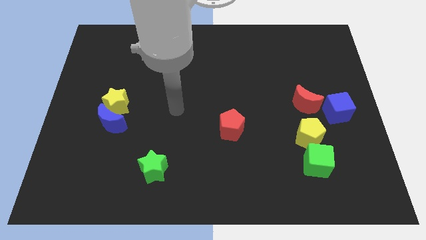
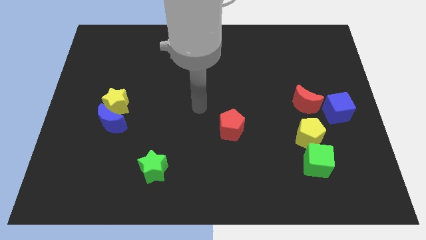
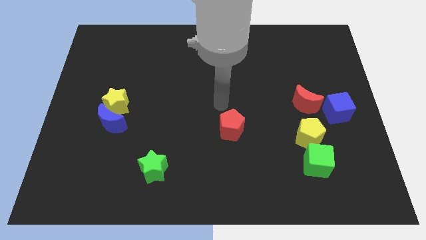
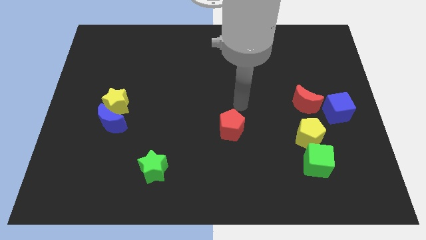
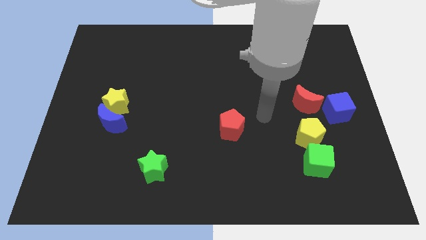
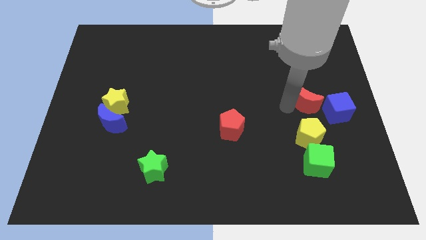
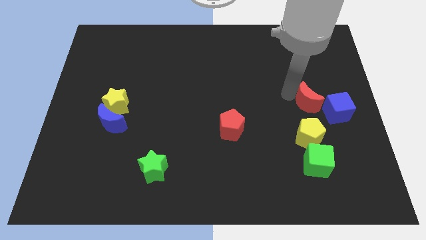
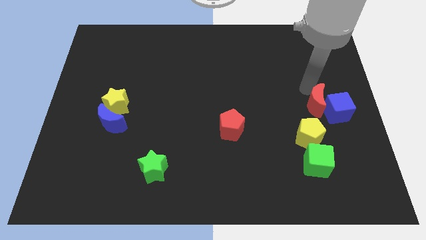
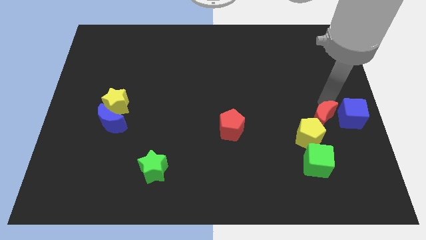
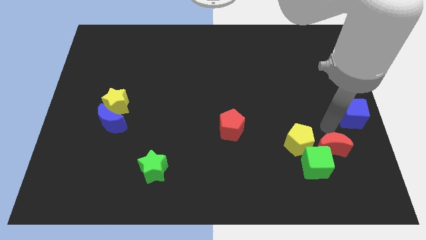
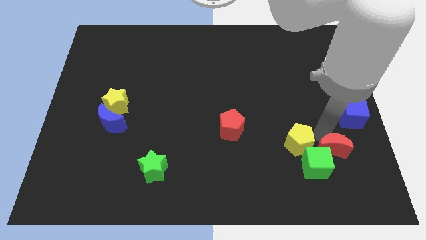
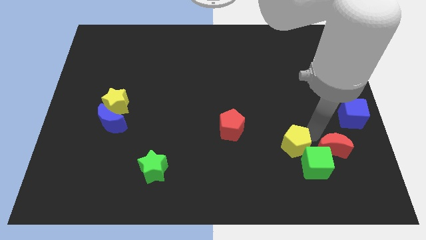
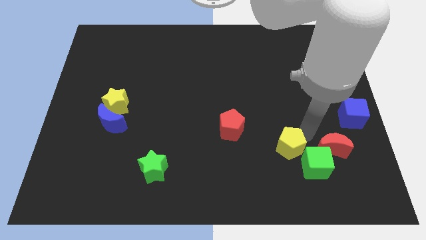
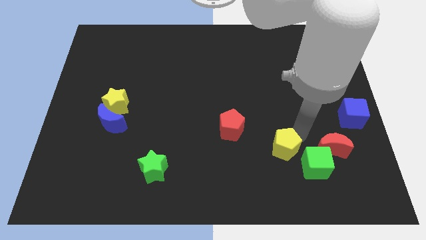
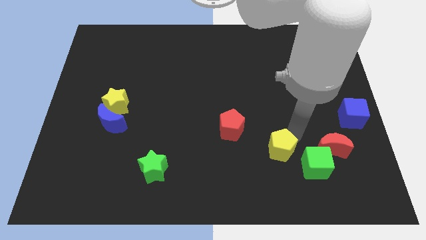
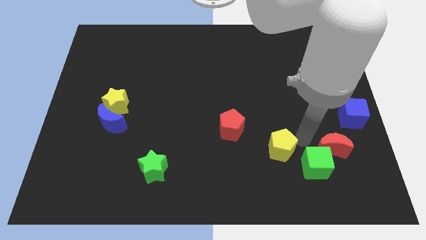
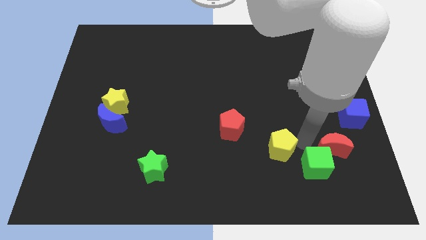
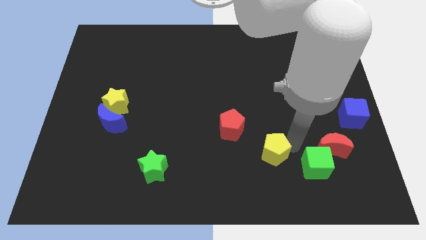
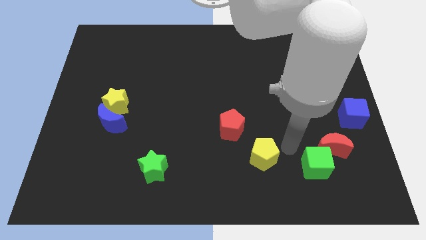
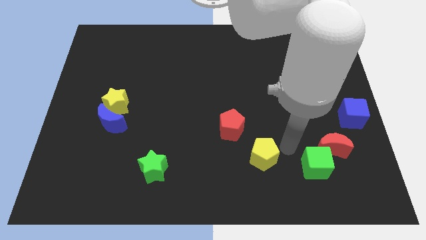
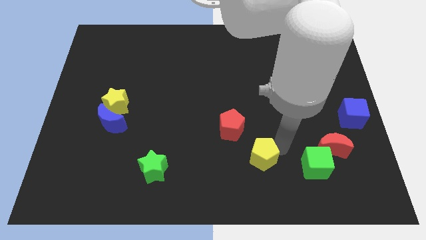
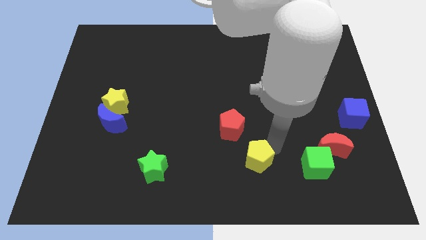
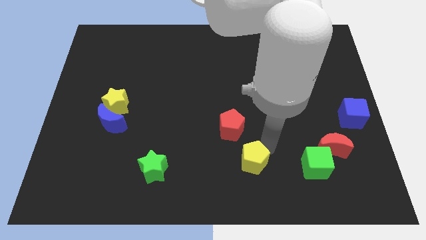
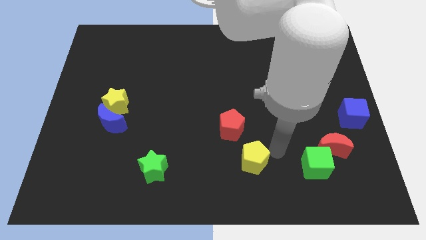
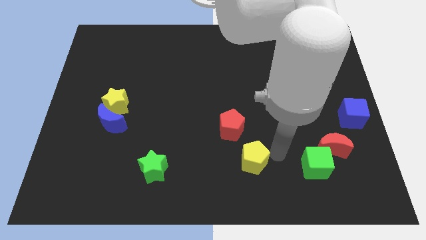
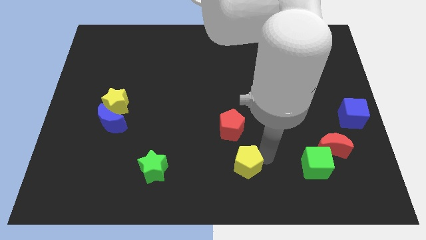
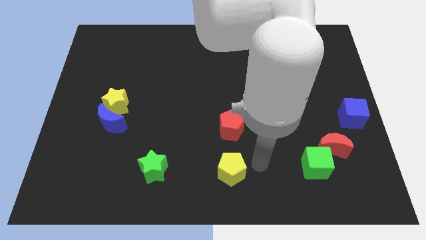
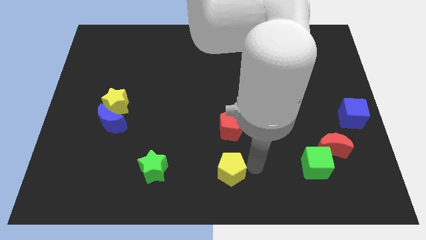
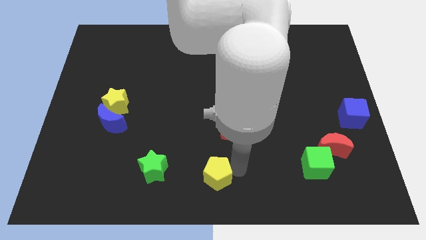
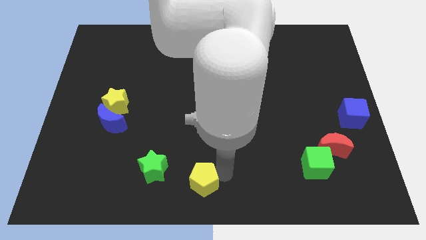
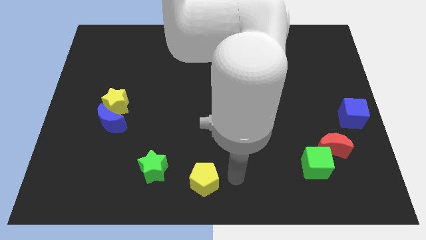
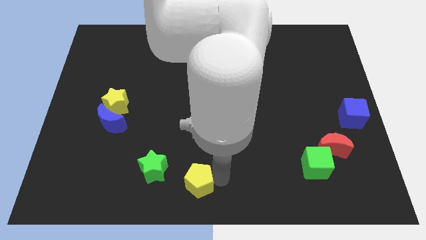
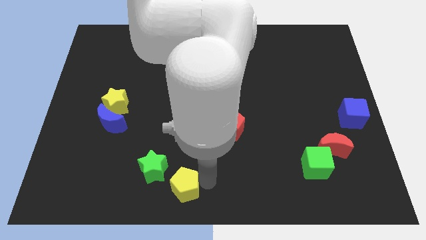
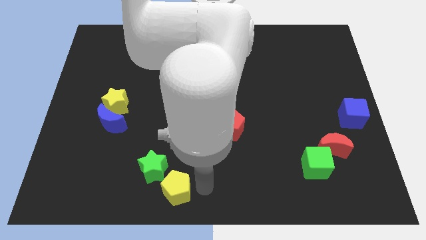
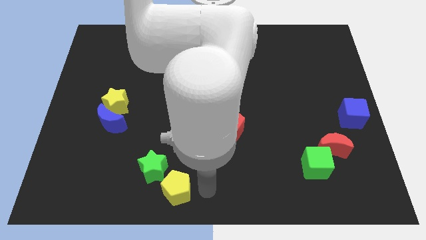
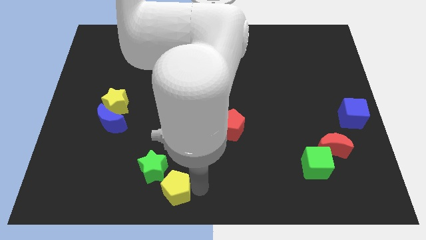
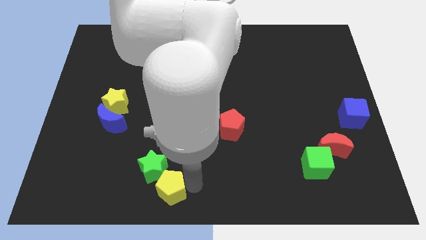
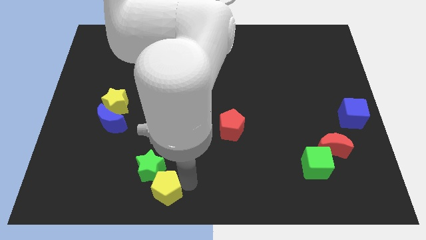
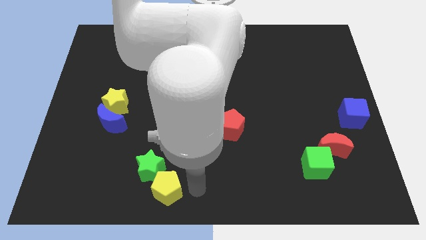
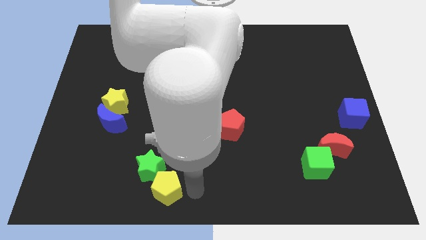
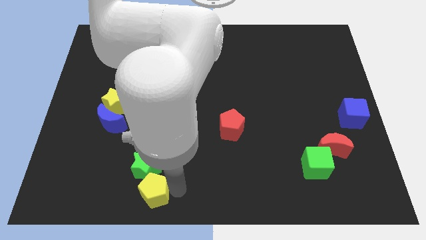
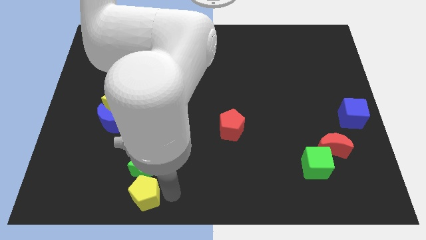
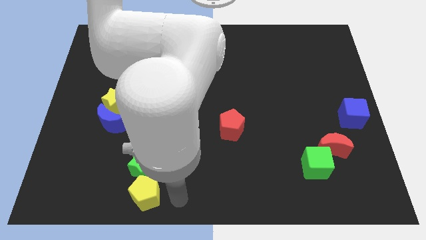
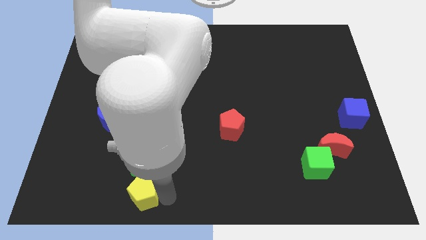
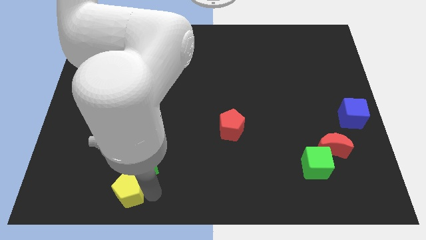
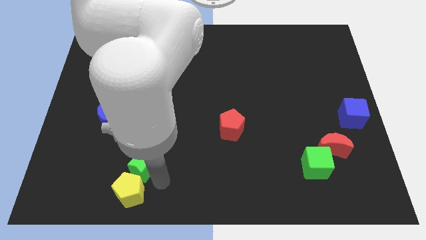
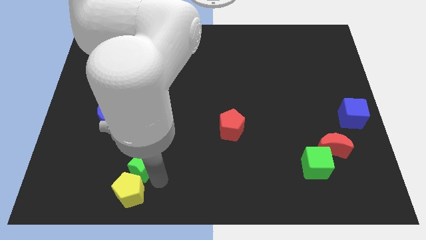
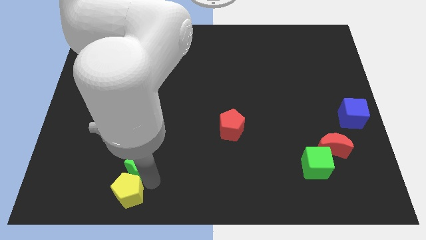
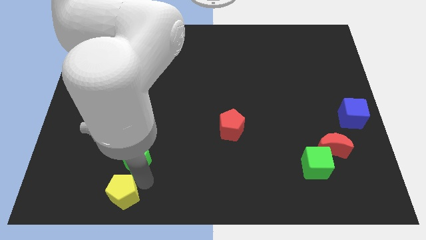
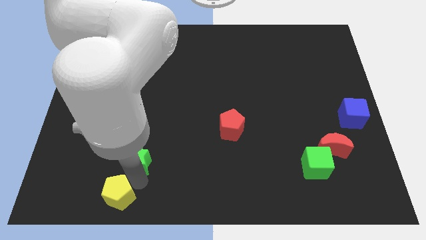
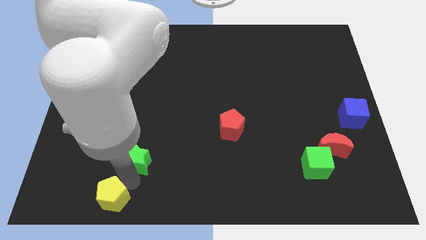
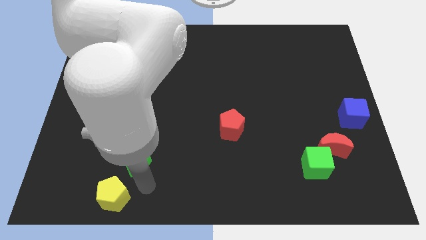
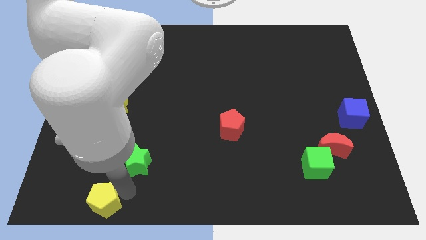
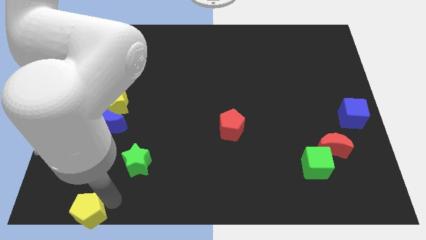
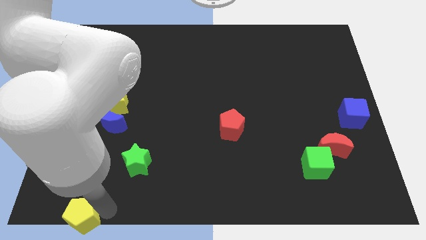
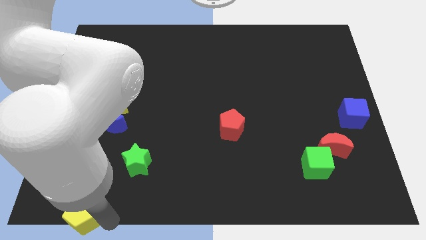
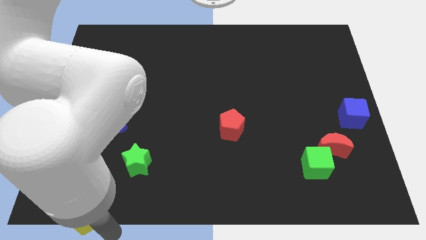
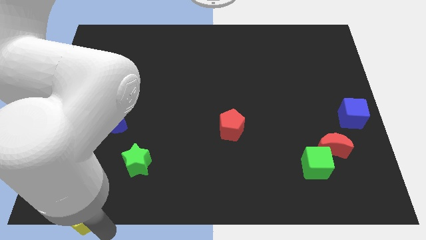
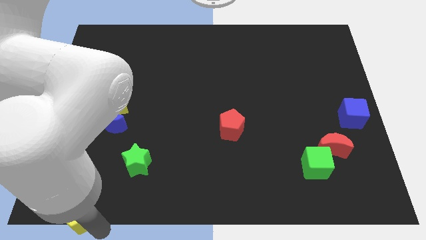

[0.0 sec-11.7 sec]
slide the yellow pentagon to the lower left corner

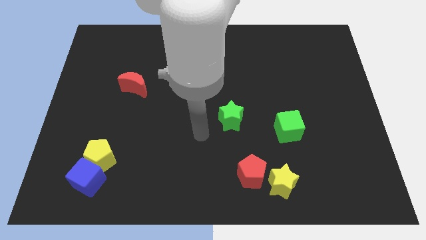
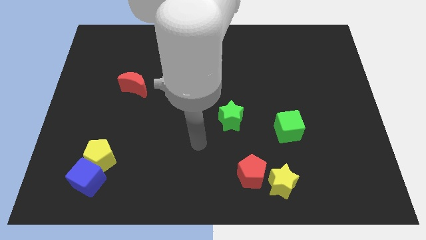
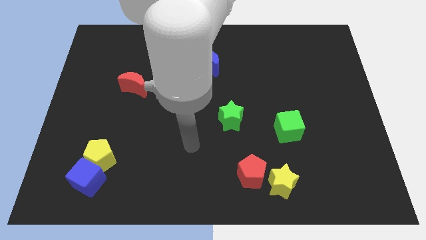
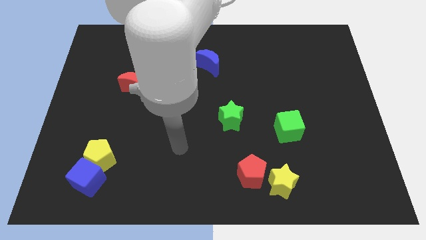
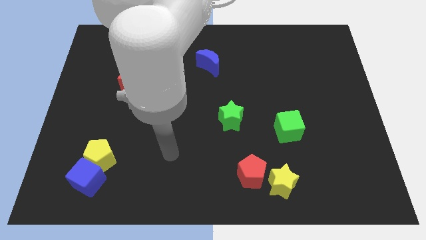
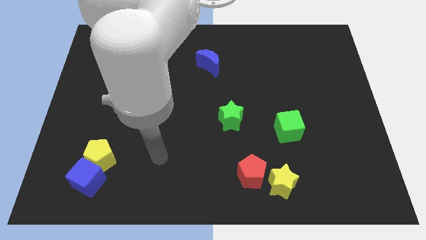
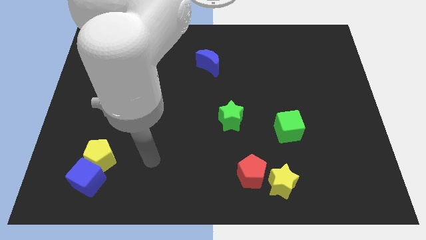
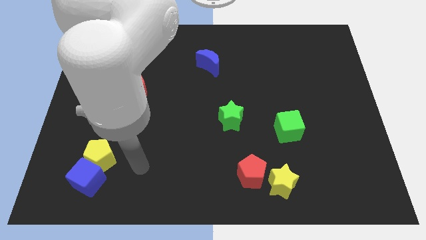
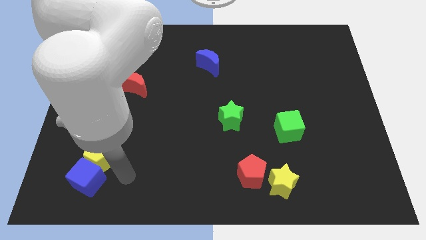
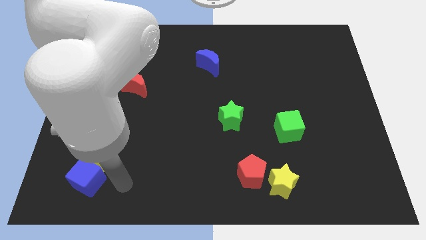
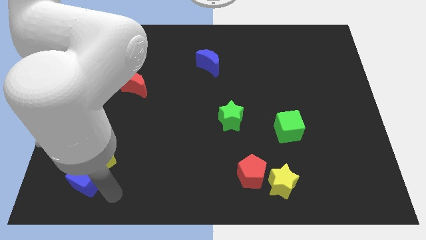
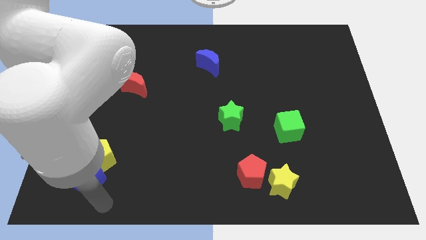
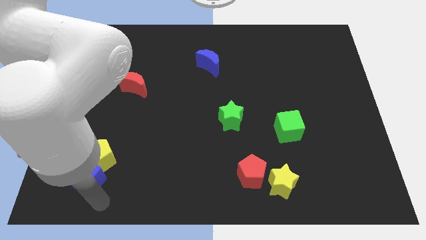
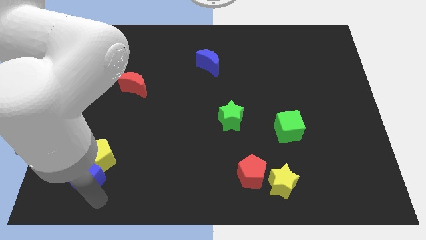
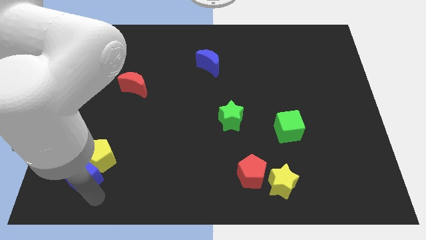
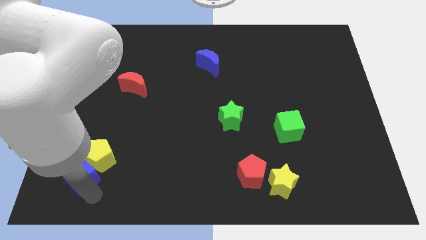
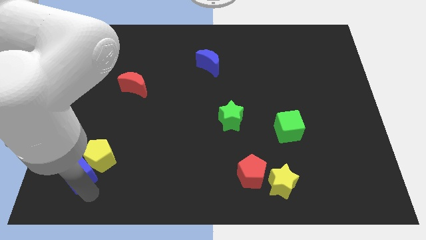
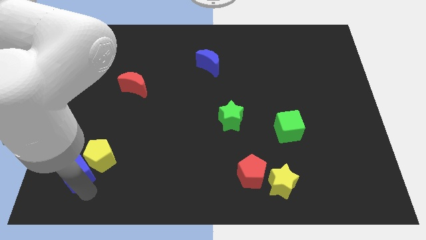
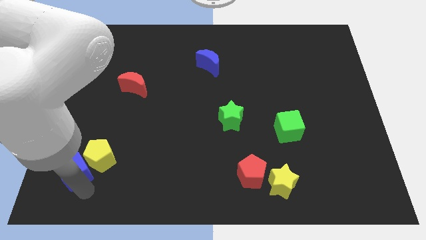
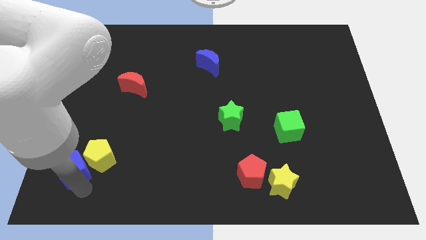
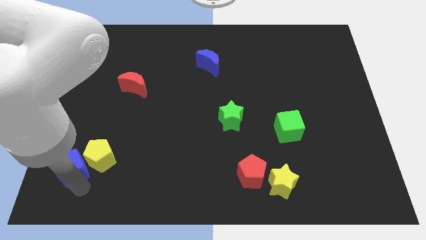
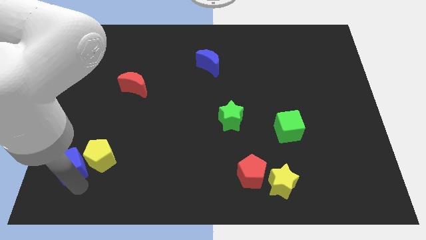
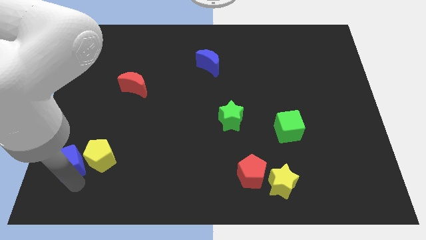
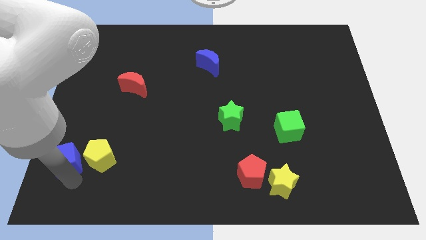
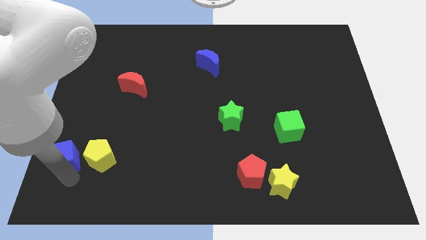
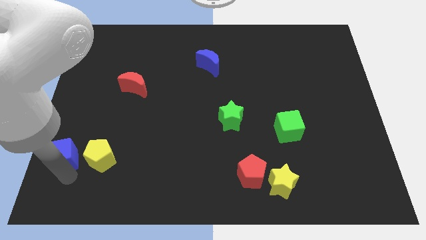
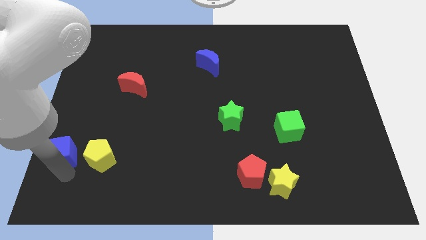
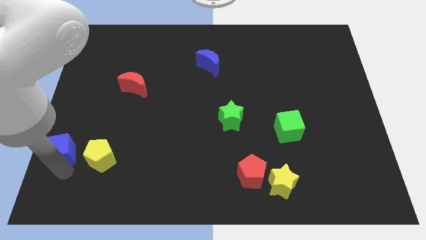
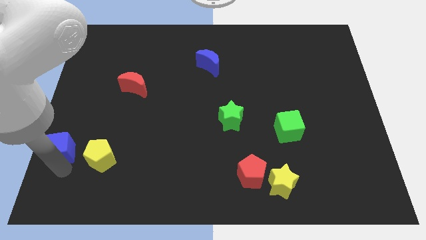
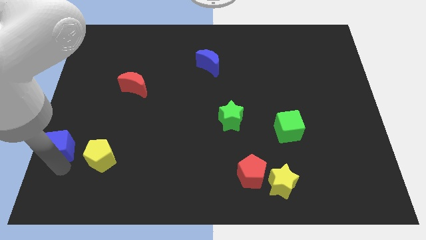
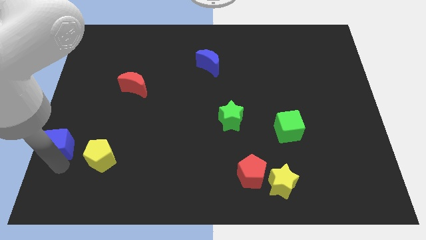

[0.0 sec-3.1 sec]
push the blue cube to the left side of the board
